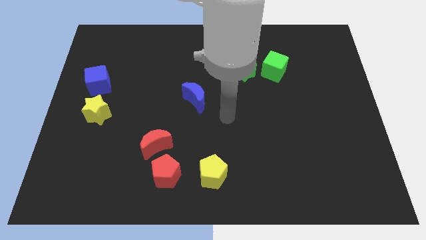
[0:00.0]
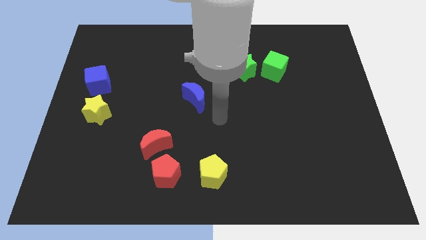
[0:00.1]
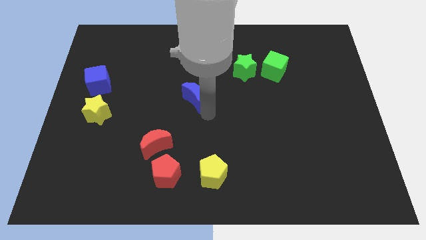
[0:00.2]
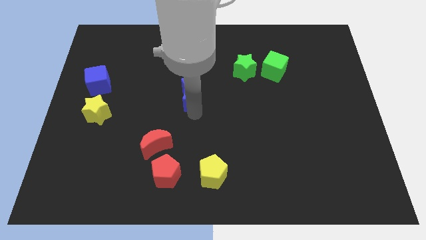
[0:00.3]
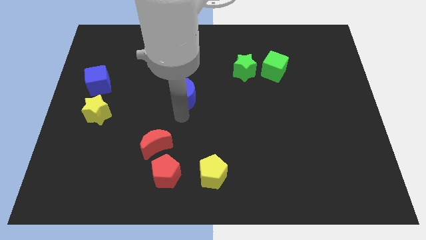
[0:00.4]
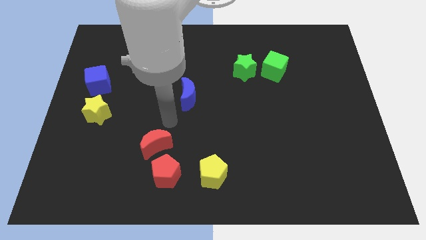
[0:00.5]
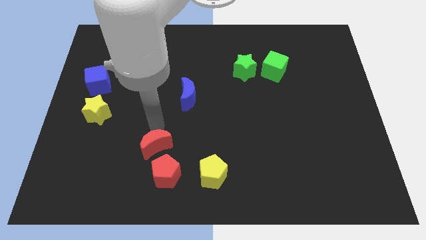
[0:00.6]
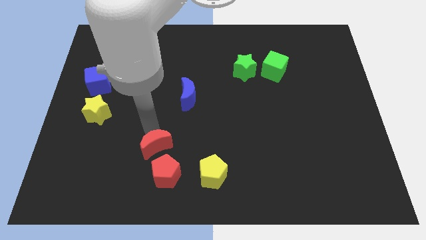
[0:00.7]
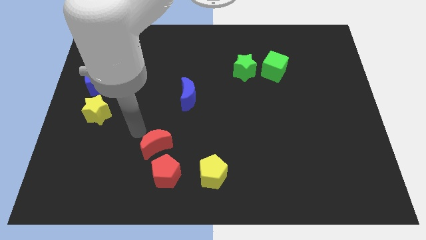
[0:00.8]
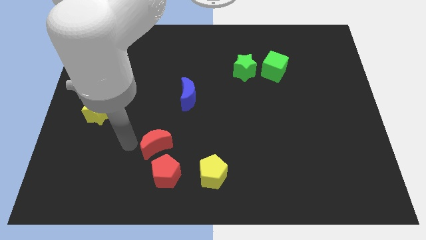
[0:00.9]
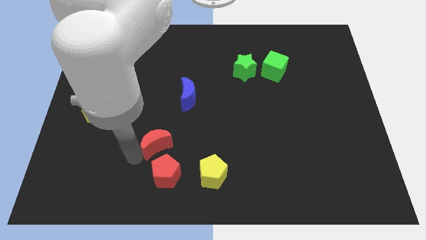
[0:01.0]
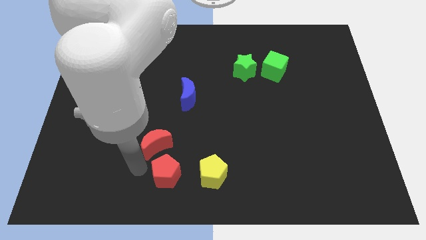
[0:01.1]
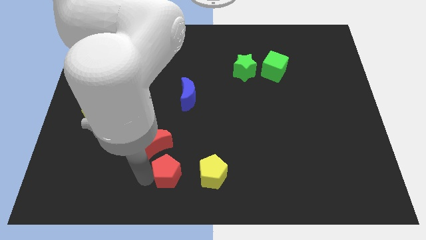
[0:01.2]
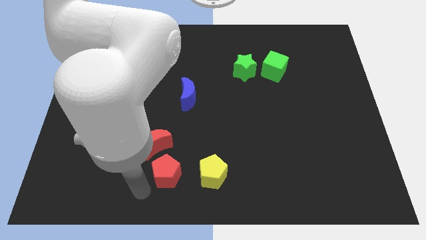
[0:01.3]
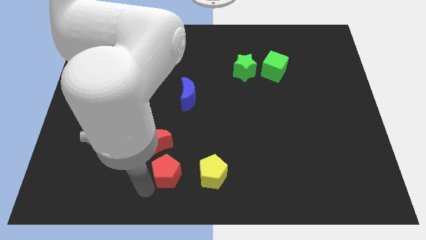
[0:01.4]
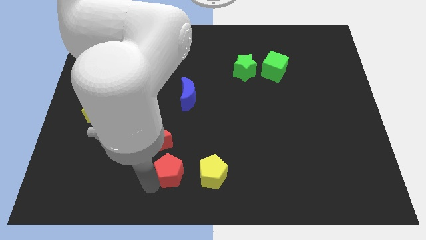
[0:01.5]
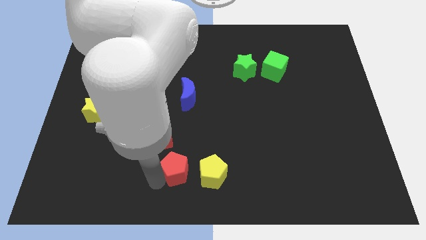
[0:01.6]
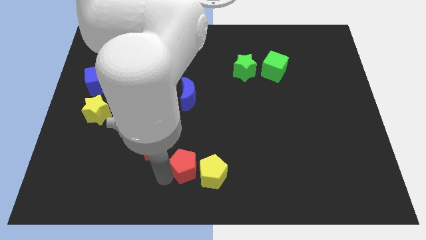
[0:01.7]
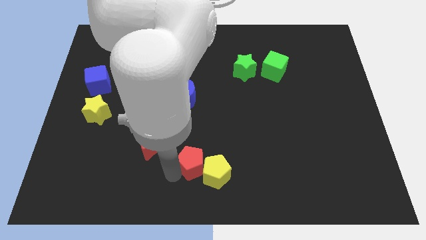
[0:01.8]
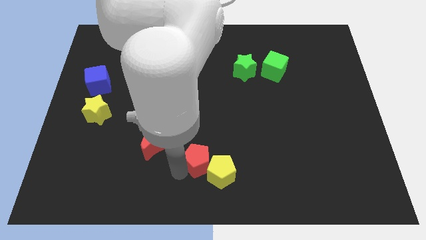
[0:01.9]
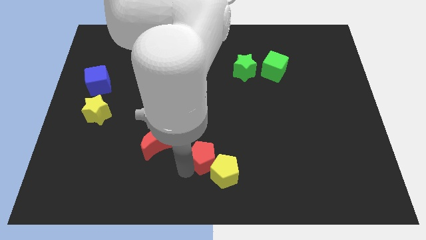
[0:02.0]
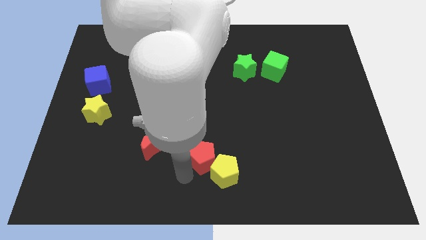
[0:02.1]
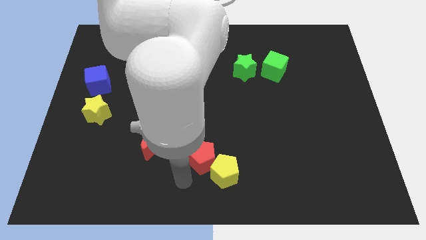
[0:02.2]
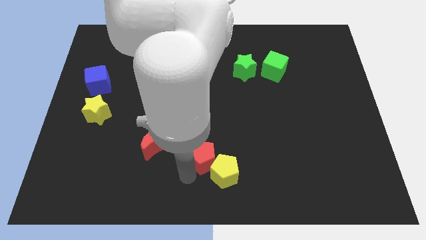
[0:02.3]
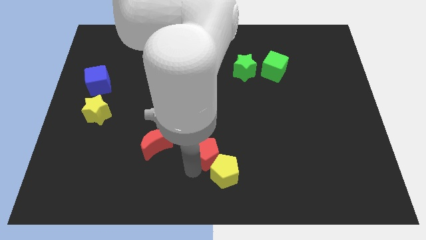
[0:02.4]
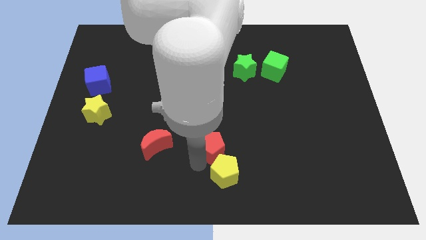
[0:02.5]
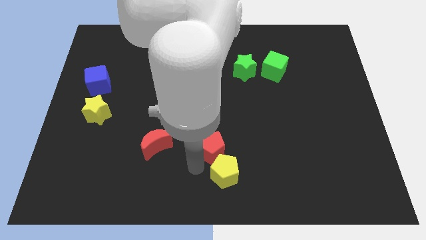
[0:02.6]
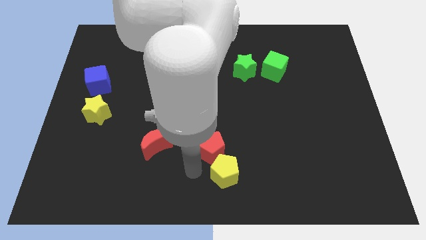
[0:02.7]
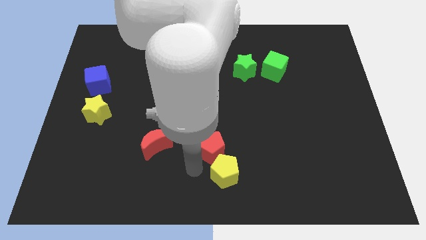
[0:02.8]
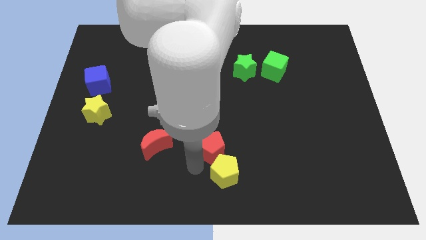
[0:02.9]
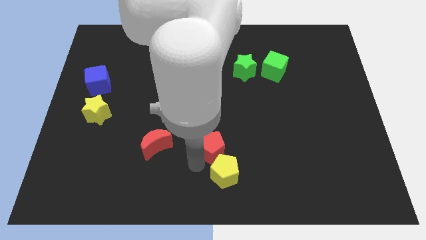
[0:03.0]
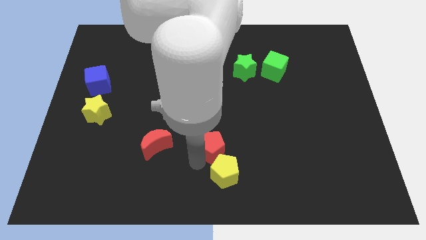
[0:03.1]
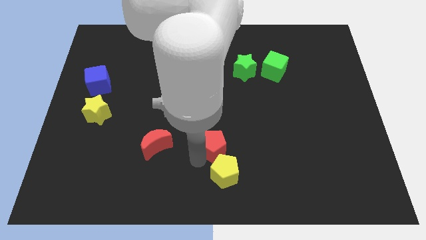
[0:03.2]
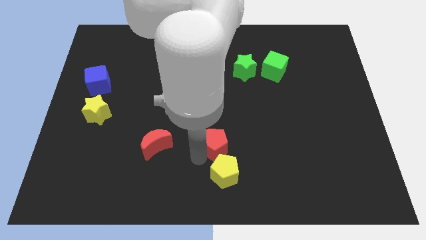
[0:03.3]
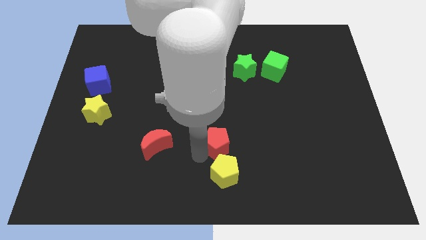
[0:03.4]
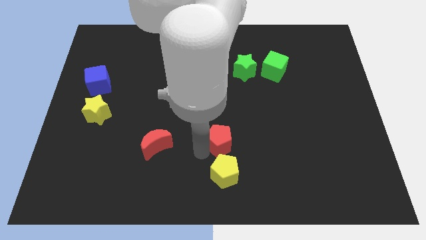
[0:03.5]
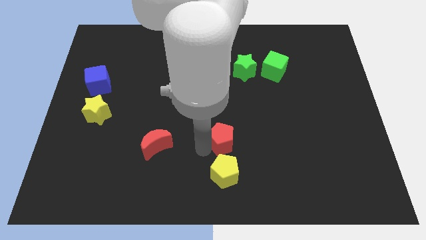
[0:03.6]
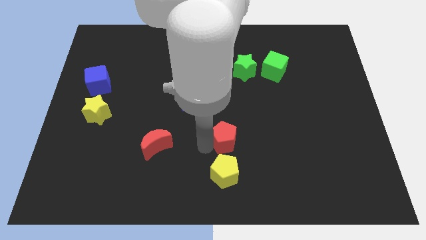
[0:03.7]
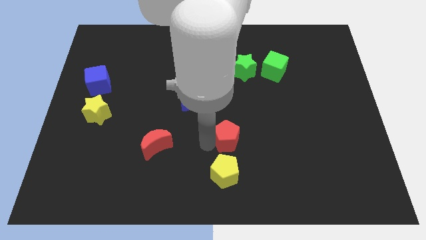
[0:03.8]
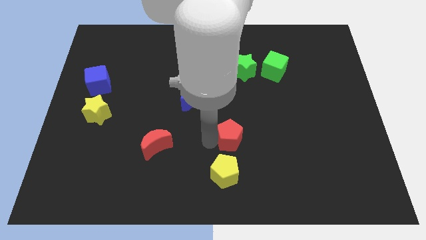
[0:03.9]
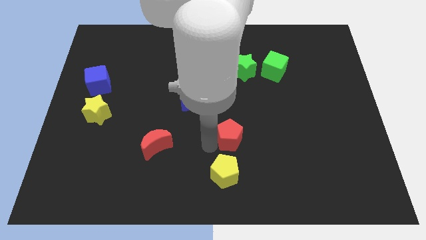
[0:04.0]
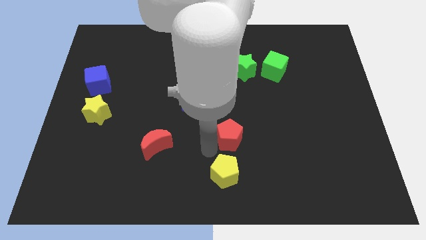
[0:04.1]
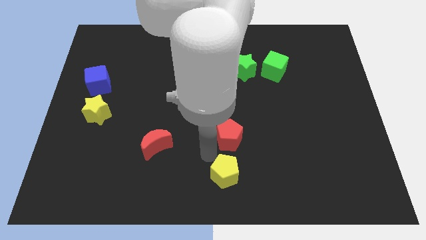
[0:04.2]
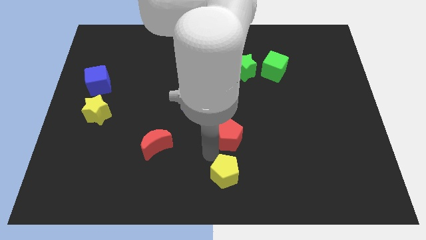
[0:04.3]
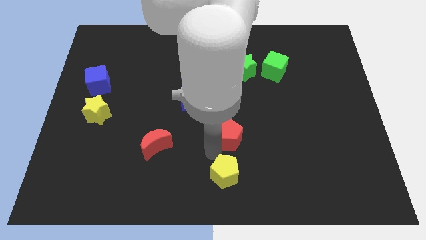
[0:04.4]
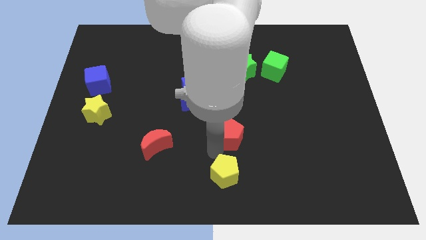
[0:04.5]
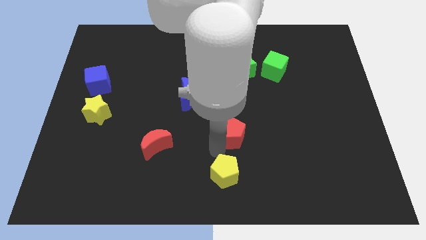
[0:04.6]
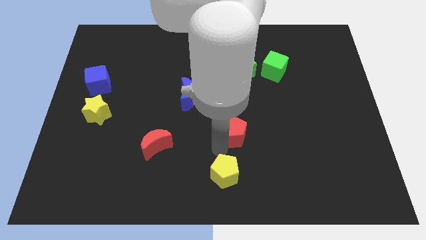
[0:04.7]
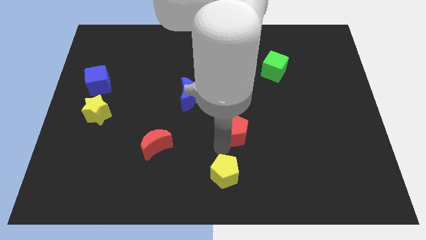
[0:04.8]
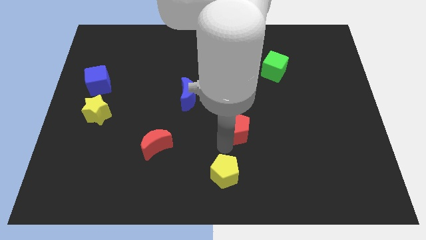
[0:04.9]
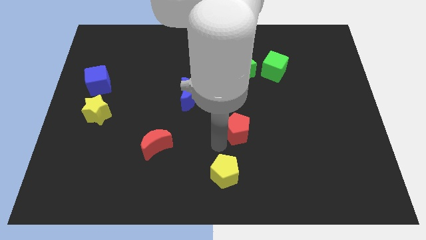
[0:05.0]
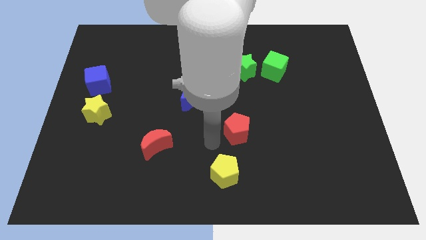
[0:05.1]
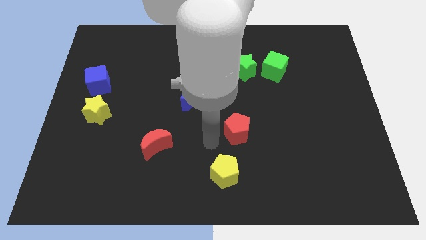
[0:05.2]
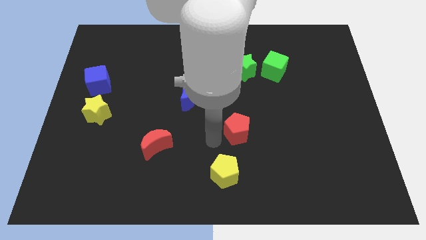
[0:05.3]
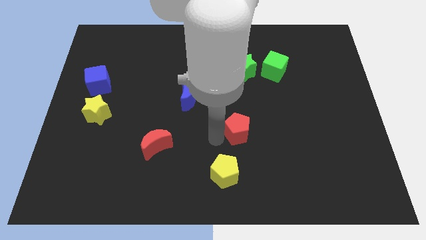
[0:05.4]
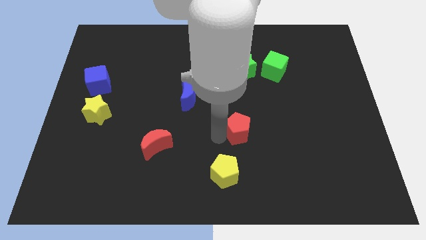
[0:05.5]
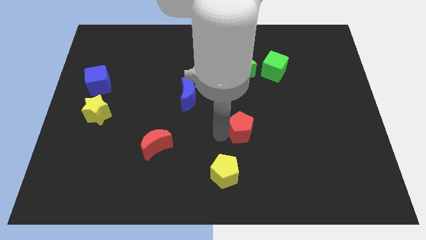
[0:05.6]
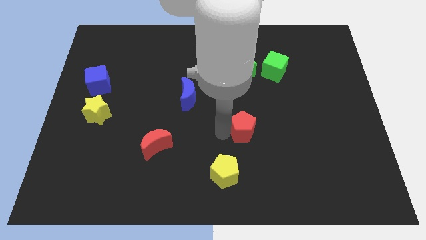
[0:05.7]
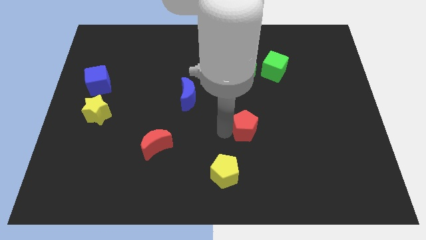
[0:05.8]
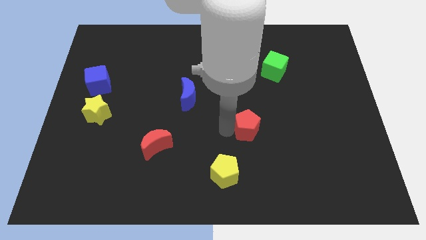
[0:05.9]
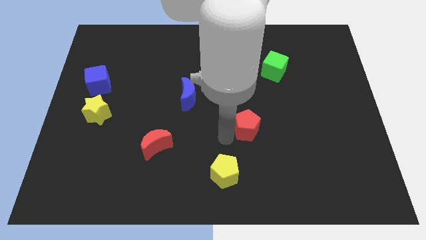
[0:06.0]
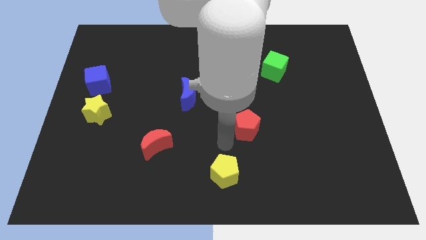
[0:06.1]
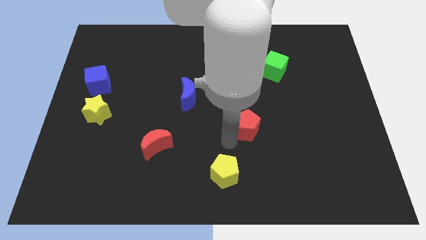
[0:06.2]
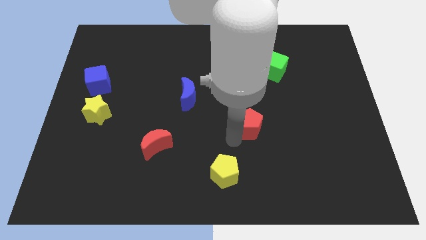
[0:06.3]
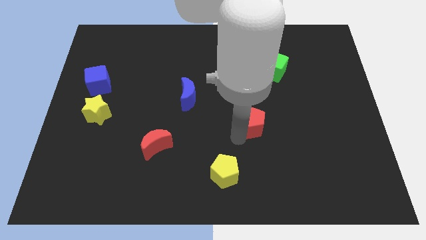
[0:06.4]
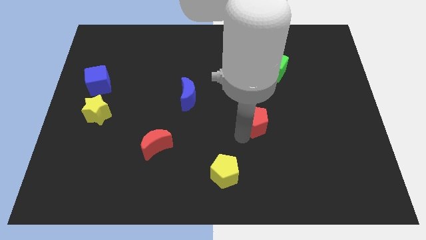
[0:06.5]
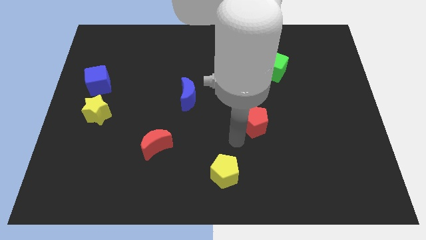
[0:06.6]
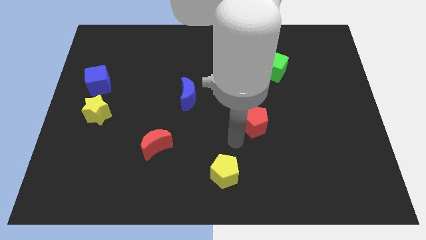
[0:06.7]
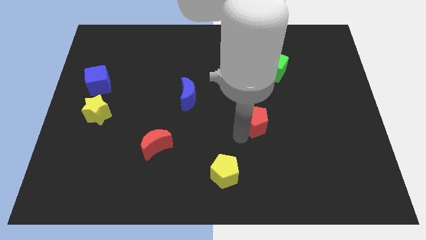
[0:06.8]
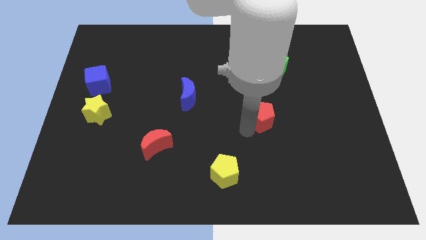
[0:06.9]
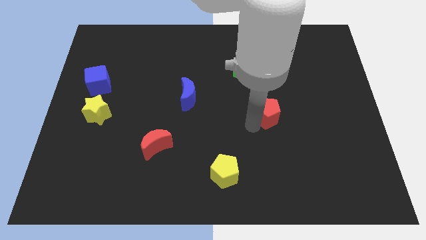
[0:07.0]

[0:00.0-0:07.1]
slide the red pentagon to the bottom of the green cube
